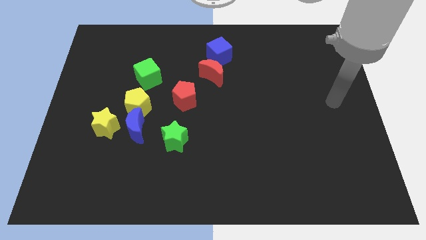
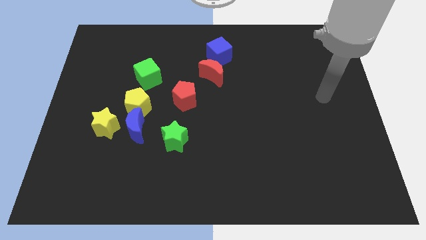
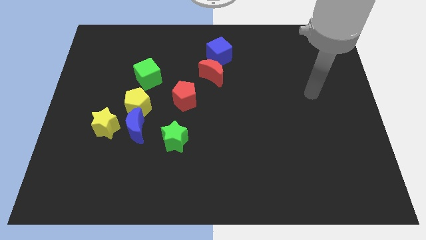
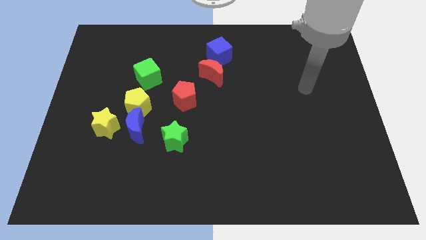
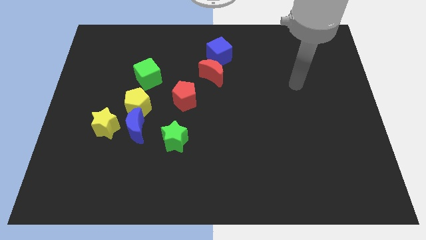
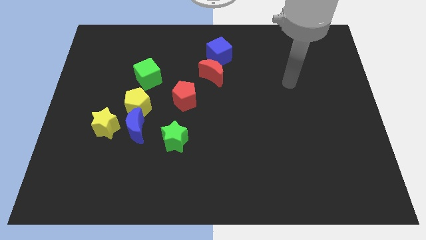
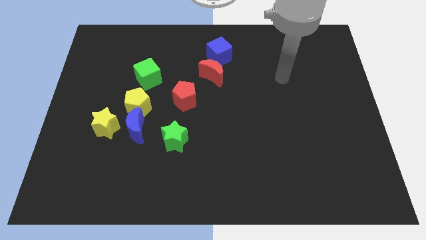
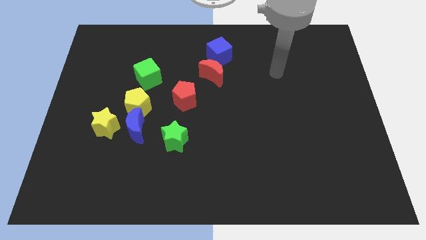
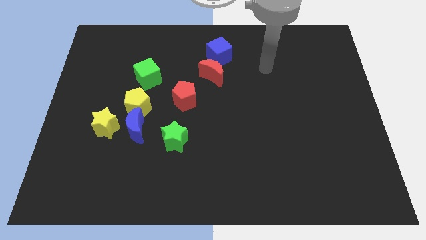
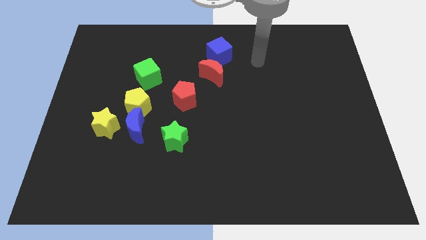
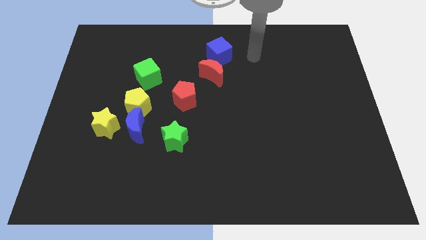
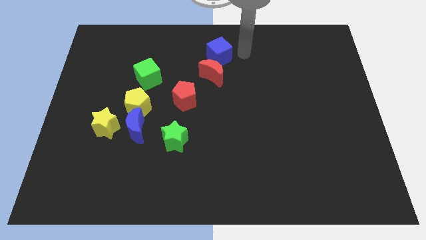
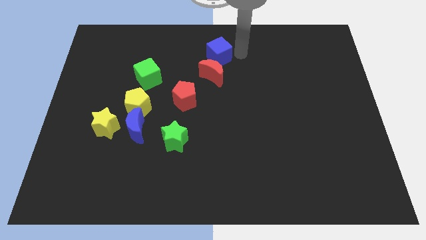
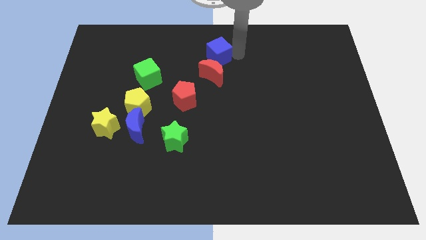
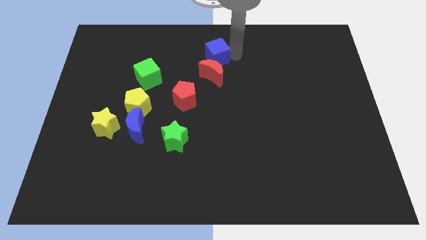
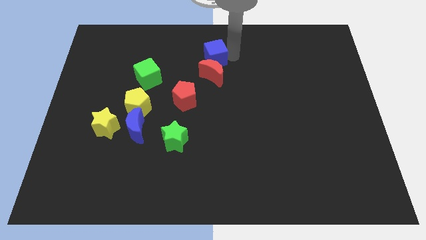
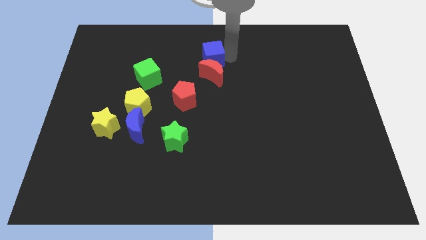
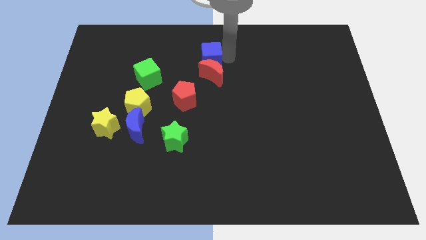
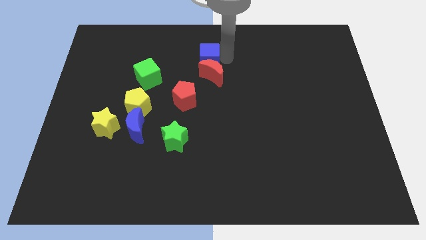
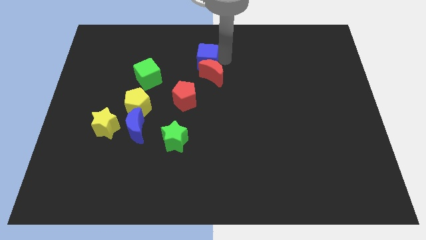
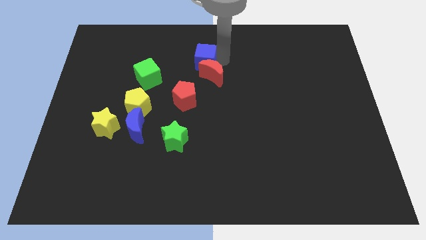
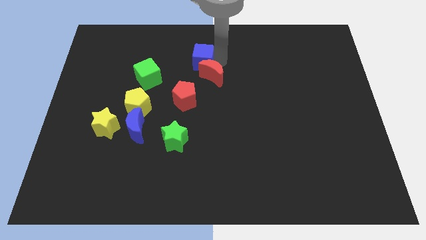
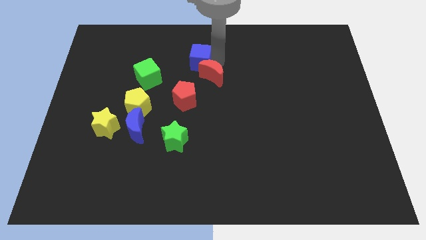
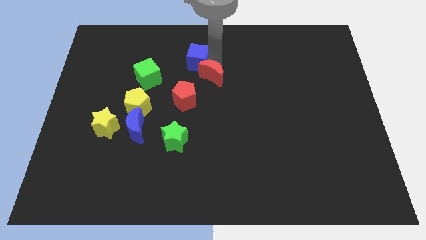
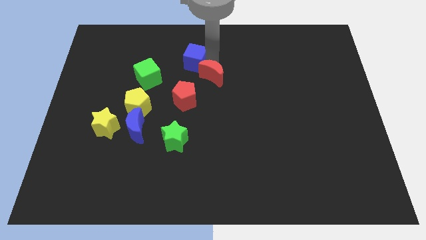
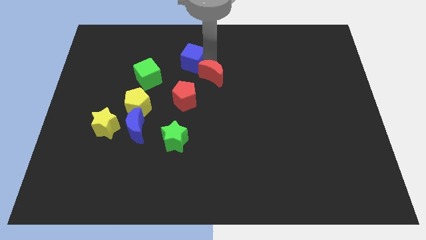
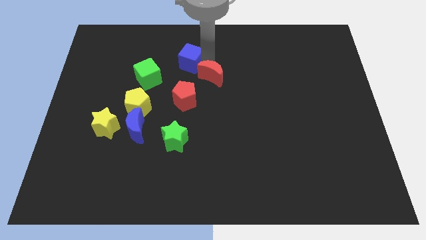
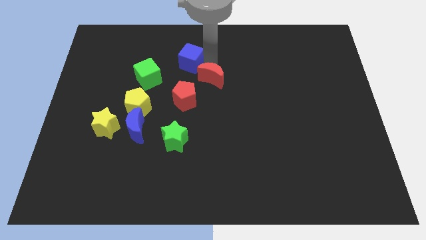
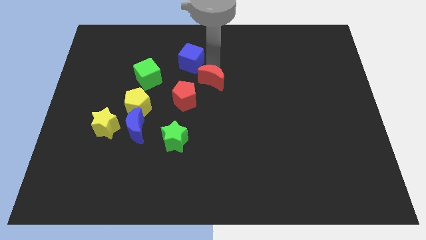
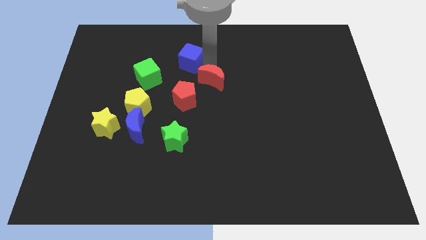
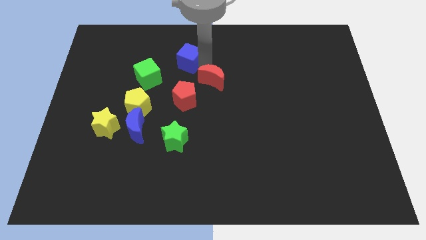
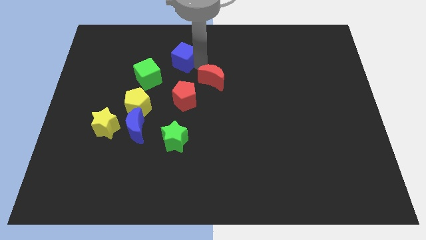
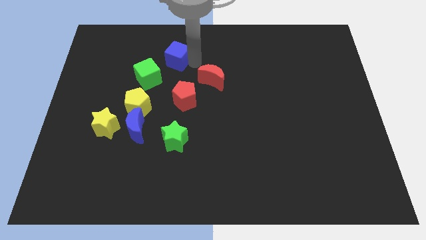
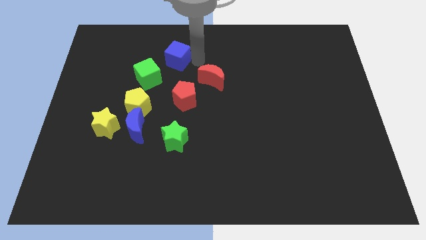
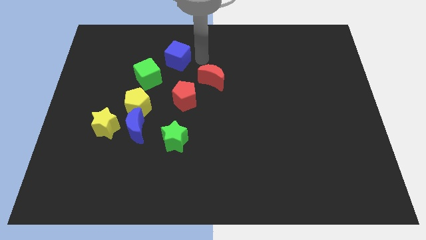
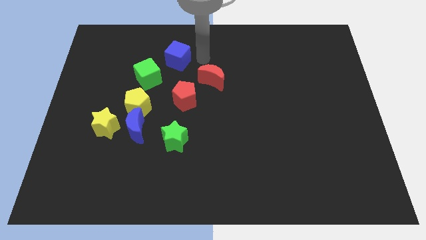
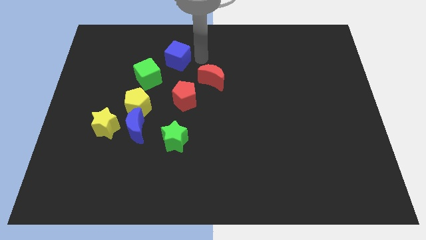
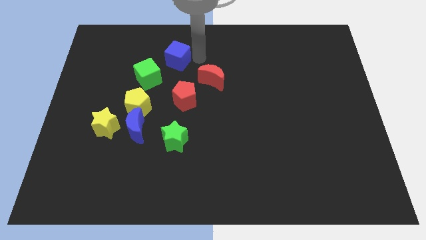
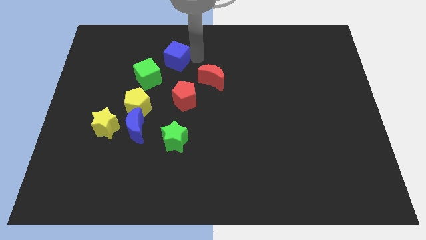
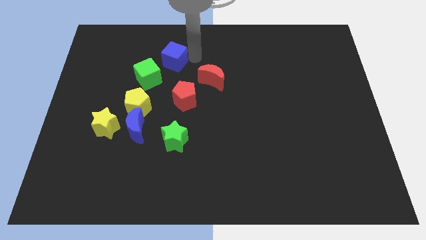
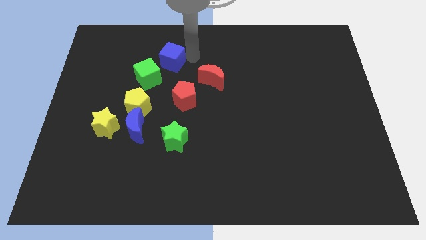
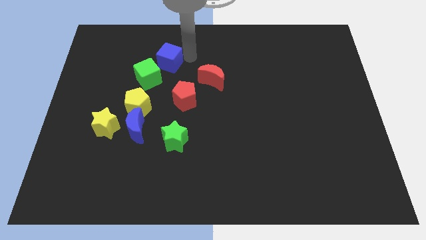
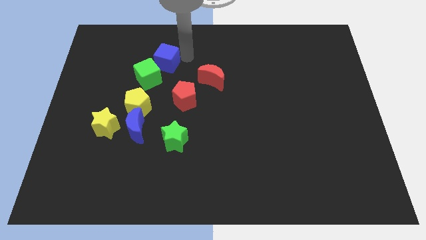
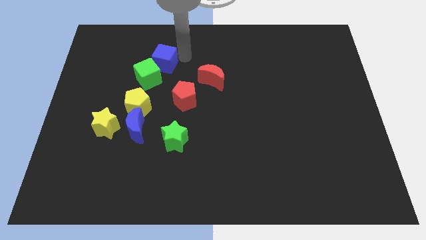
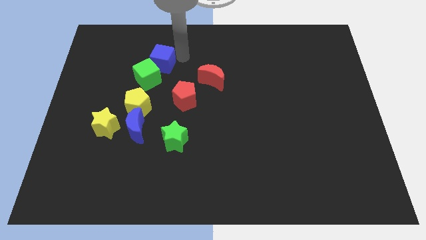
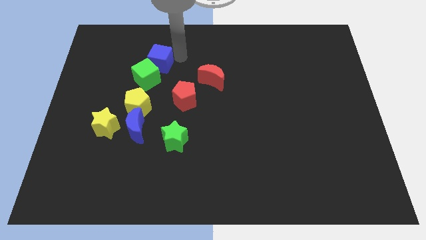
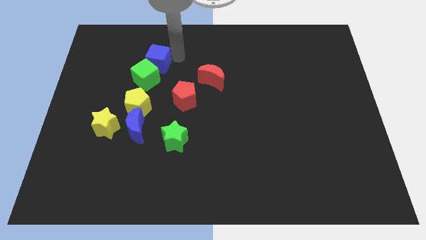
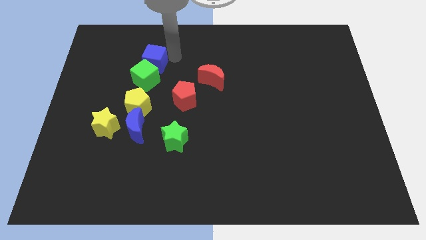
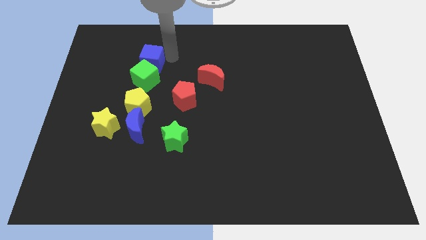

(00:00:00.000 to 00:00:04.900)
move the blue cube to the top left of the green cube

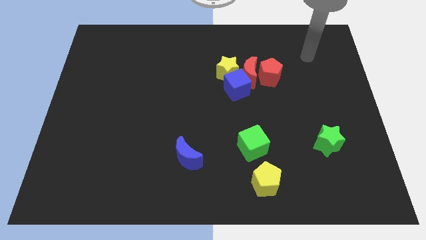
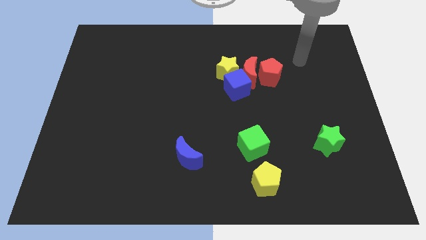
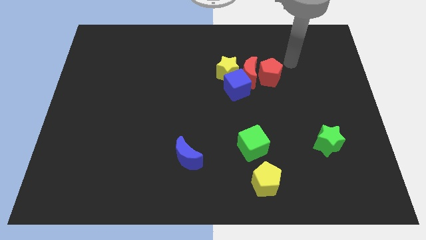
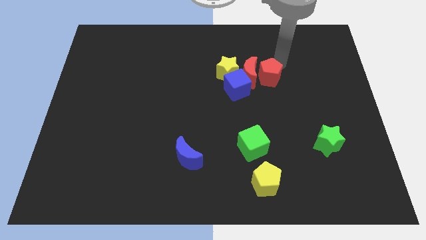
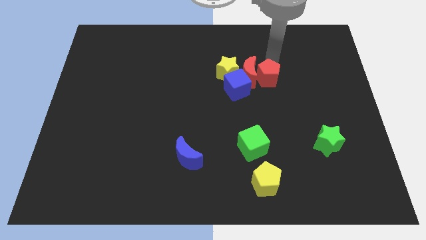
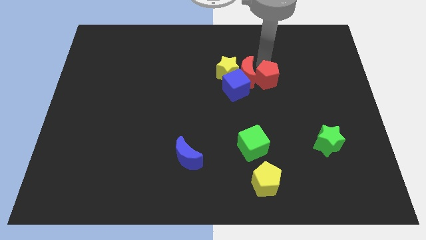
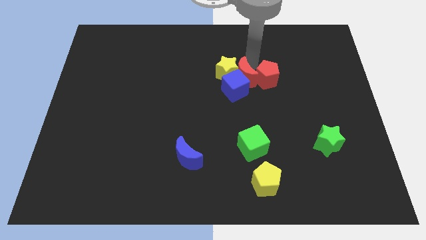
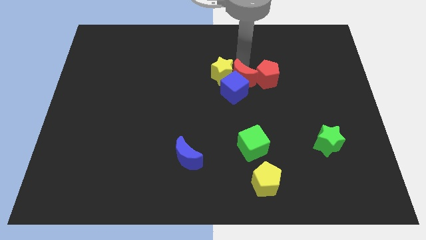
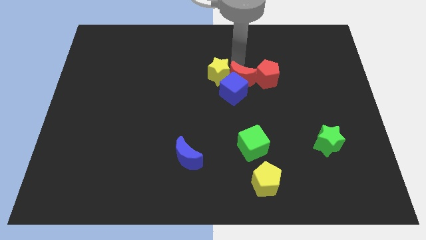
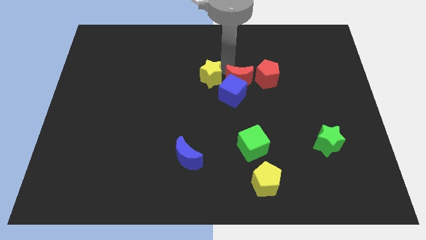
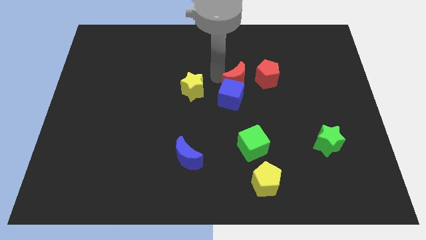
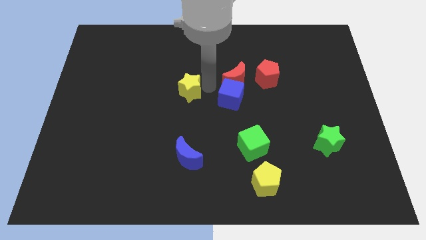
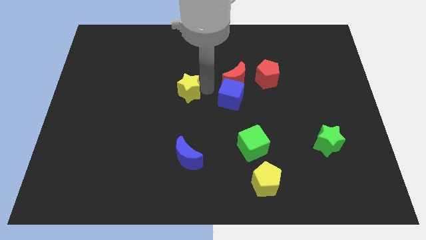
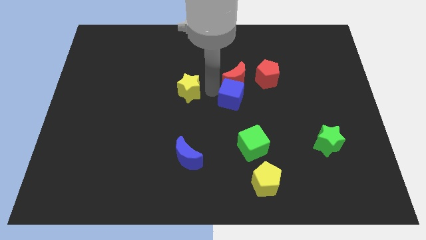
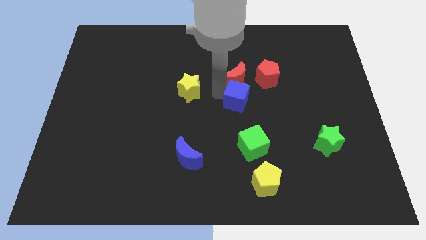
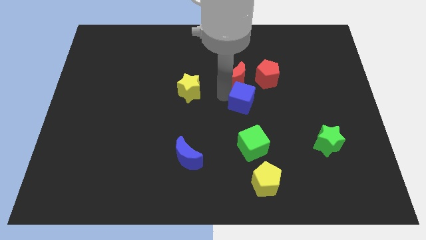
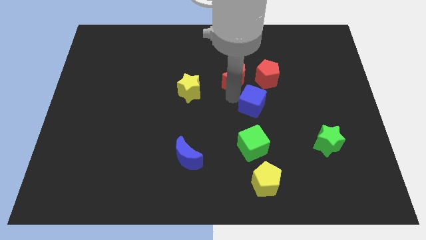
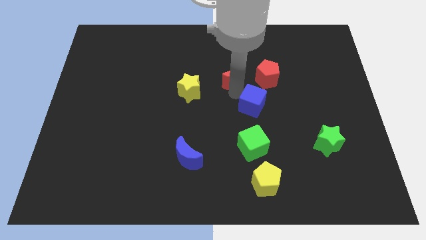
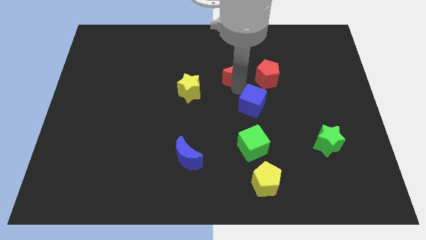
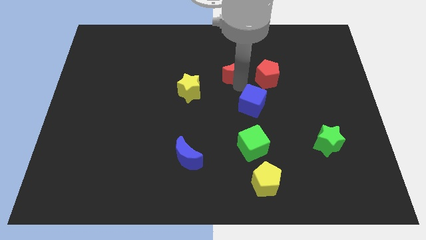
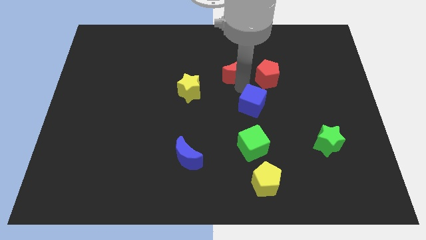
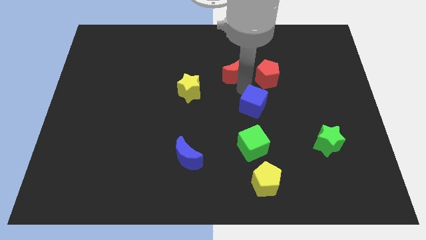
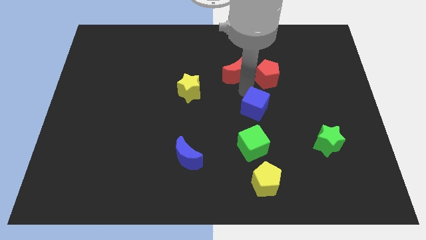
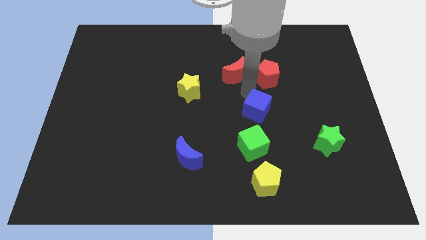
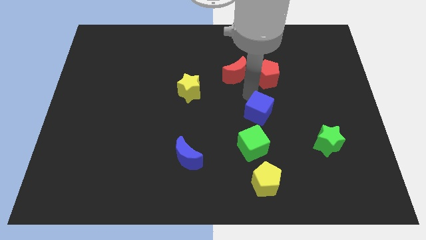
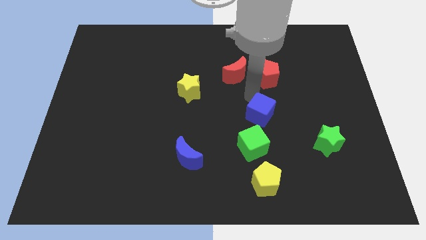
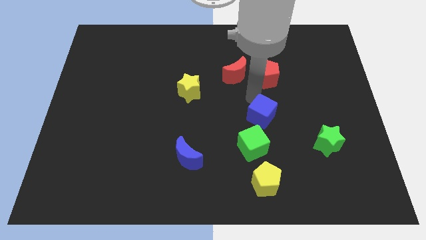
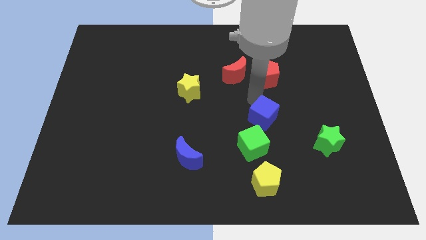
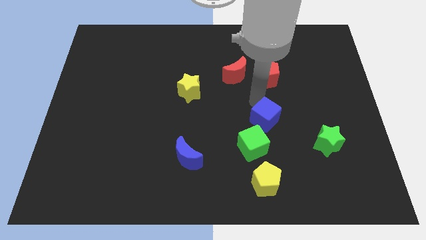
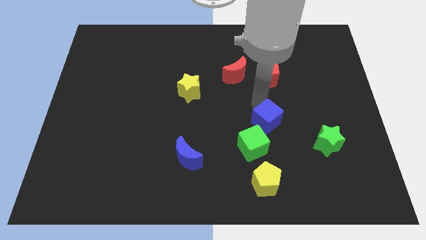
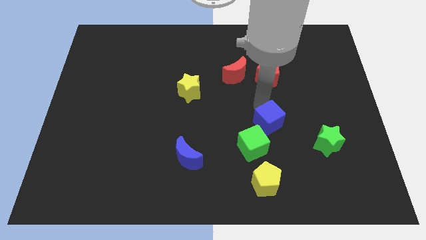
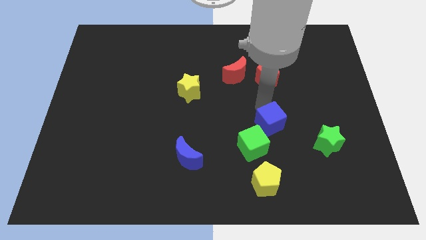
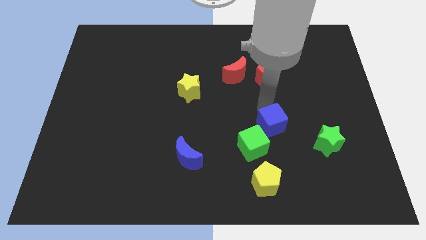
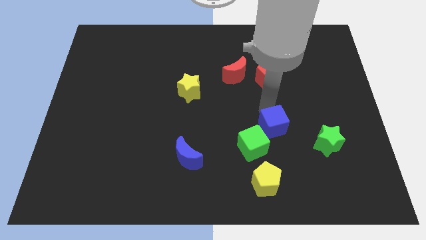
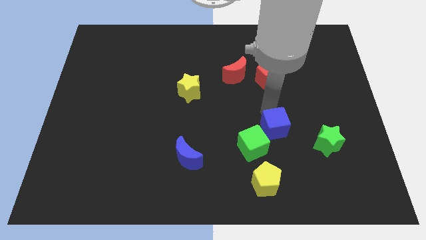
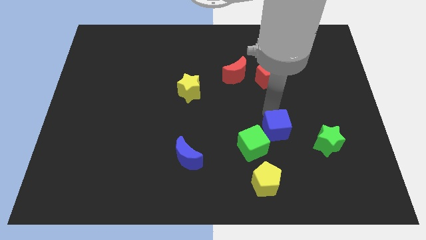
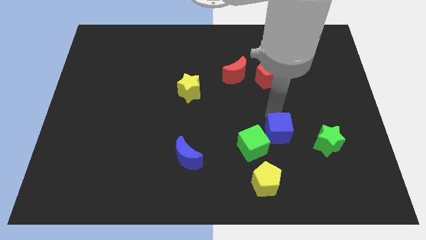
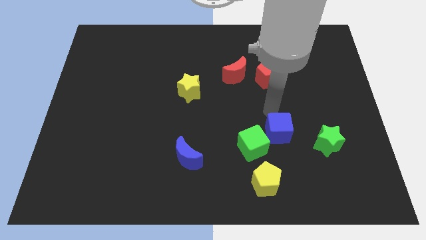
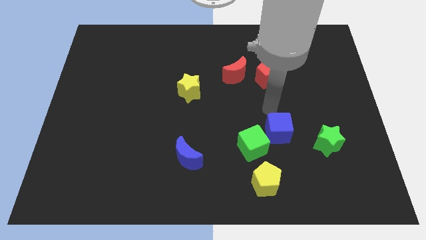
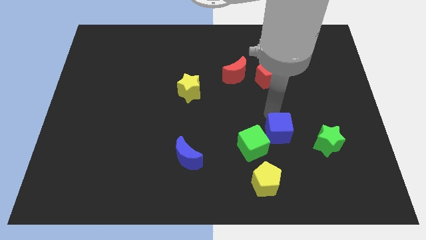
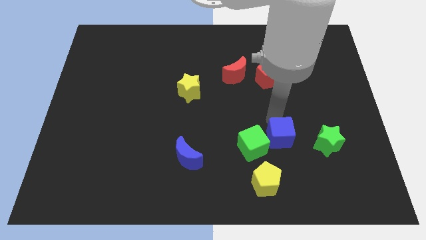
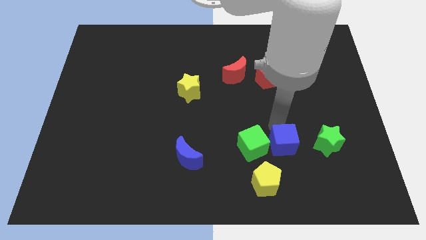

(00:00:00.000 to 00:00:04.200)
put the blue cube to the top right of the yellow pentagon
